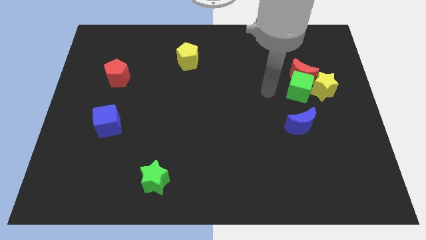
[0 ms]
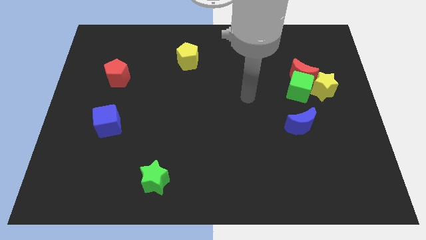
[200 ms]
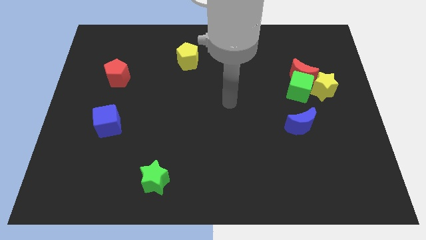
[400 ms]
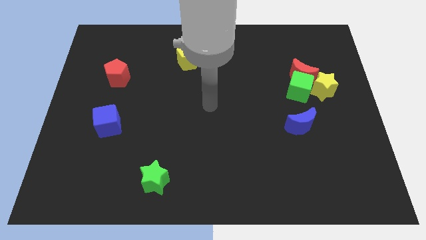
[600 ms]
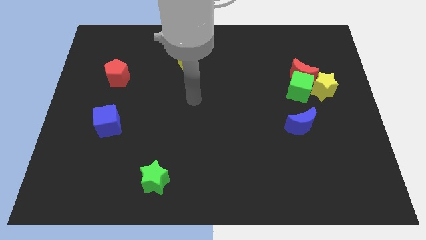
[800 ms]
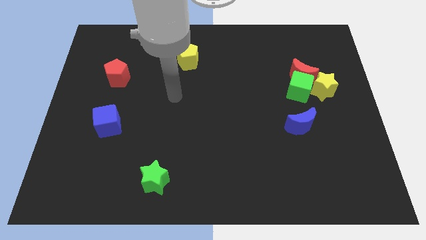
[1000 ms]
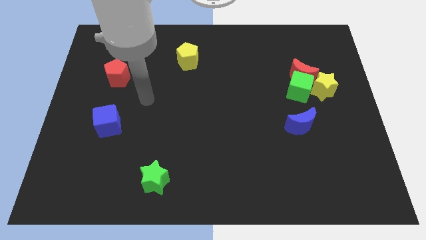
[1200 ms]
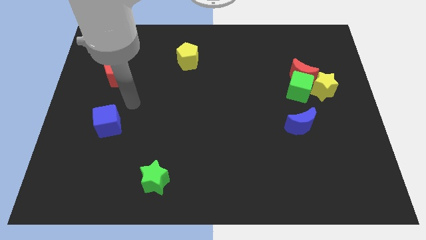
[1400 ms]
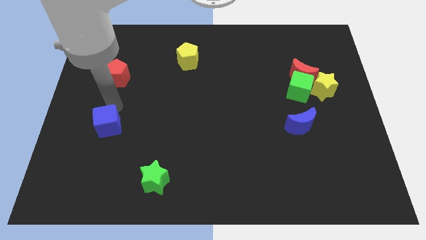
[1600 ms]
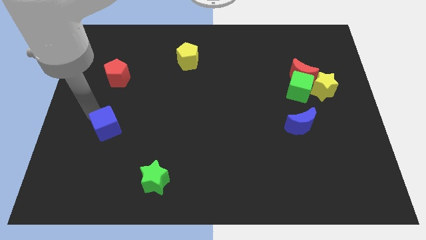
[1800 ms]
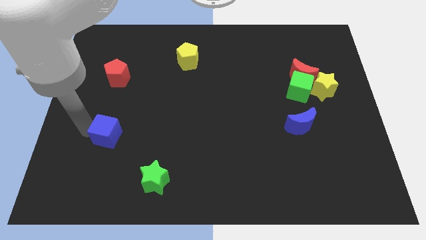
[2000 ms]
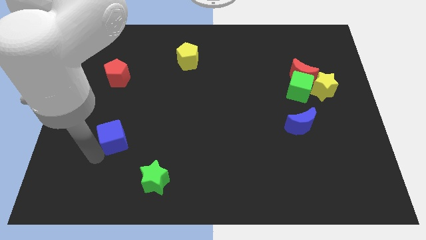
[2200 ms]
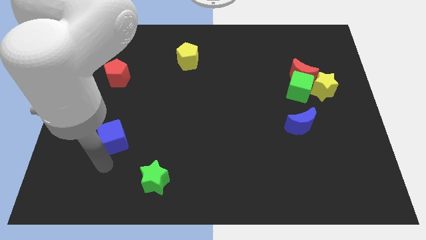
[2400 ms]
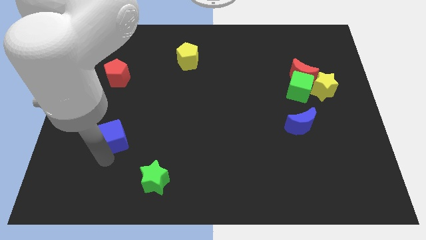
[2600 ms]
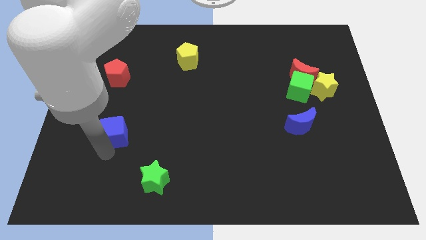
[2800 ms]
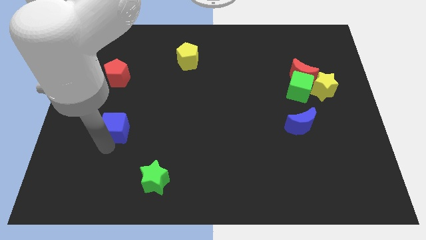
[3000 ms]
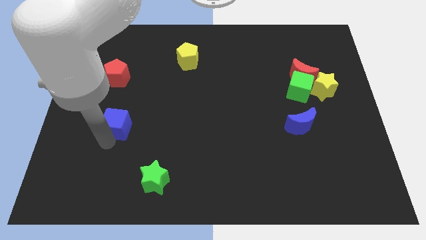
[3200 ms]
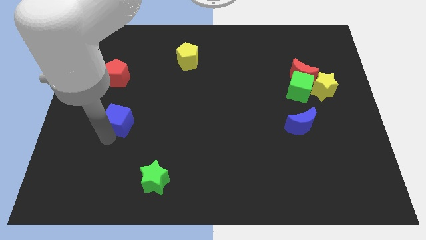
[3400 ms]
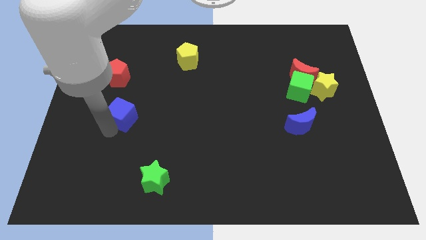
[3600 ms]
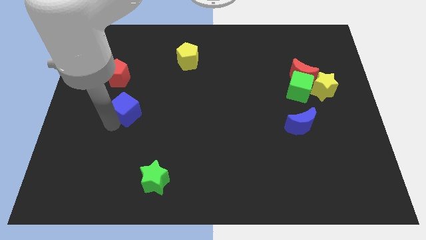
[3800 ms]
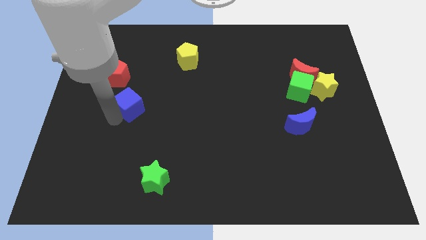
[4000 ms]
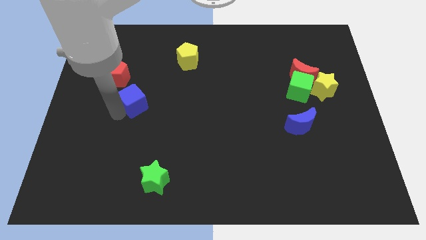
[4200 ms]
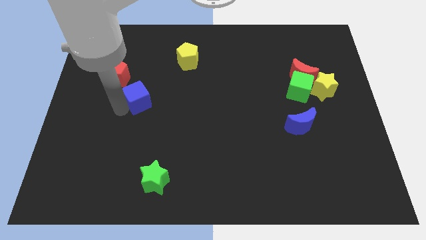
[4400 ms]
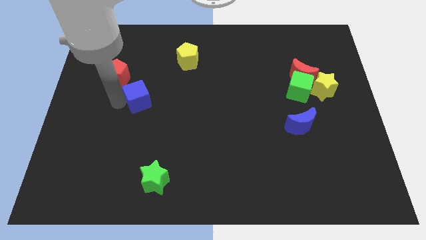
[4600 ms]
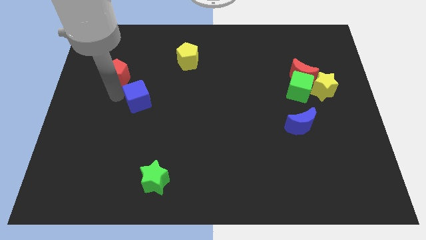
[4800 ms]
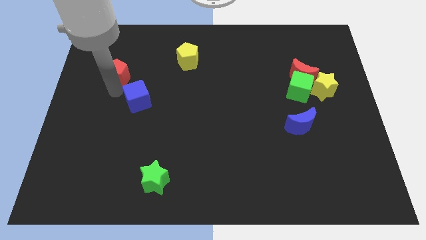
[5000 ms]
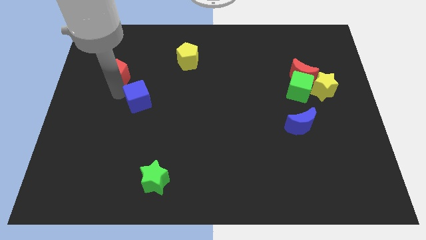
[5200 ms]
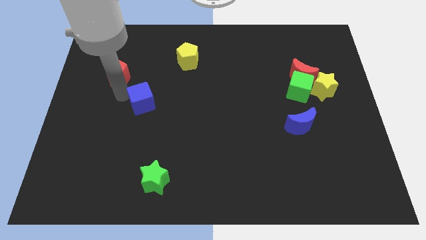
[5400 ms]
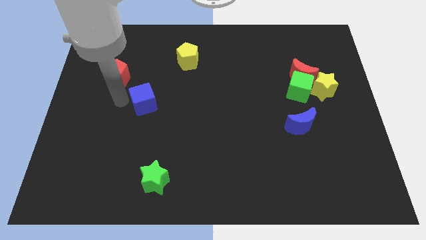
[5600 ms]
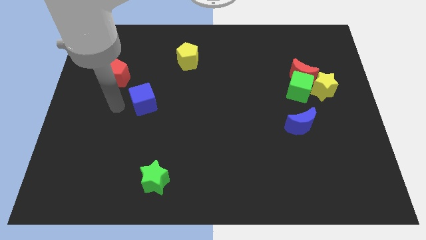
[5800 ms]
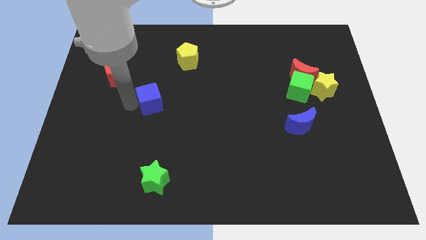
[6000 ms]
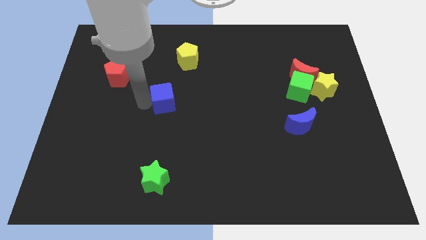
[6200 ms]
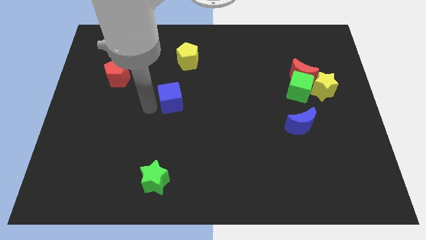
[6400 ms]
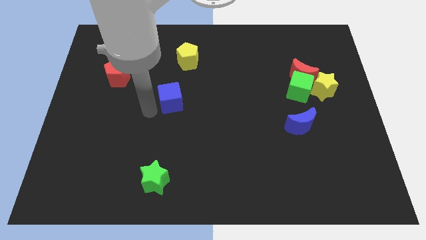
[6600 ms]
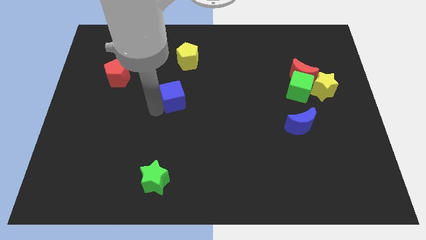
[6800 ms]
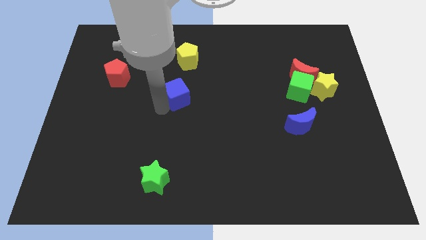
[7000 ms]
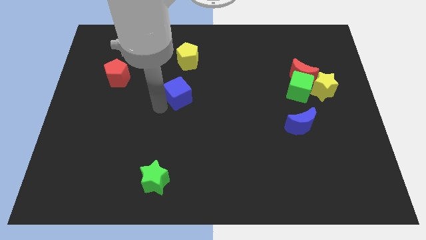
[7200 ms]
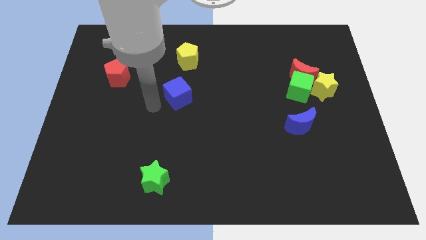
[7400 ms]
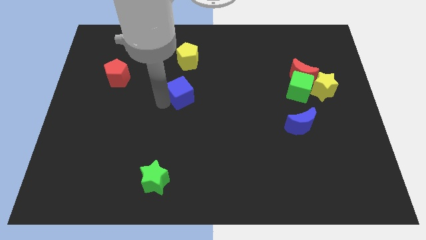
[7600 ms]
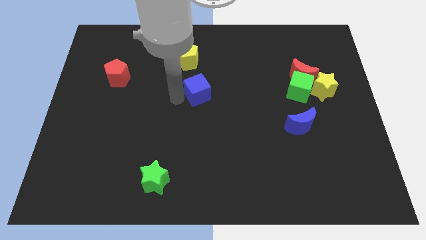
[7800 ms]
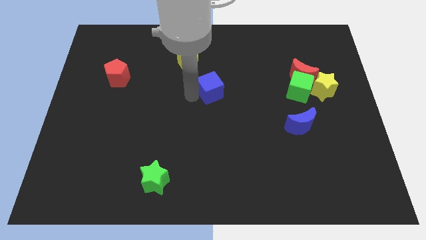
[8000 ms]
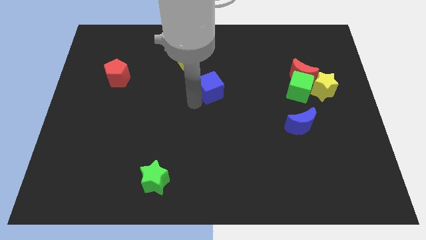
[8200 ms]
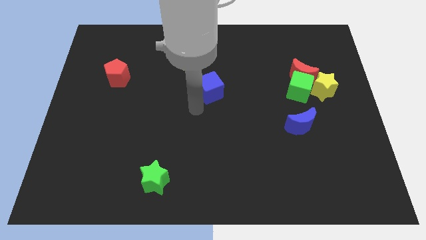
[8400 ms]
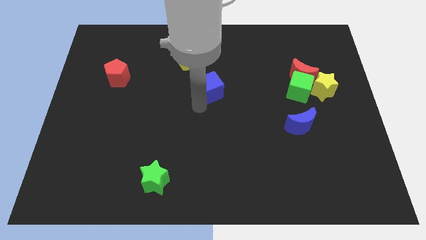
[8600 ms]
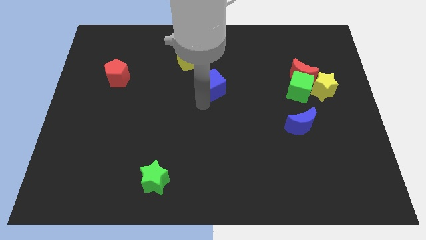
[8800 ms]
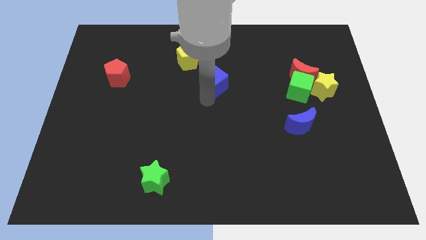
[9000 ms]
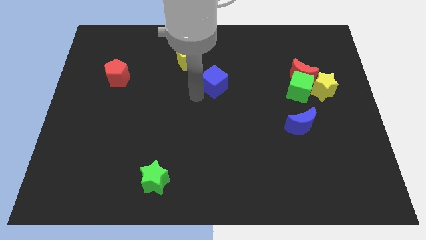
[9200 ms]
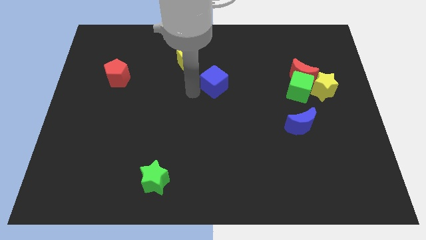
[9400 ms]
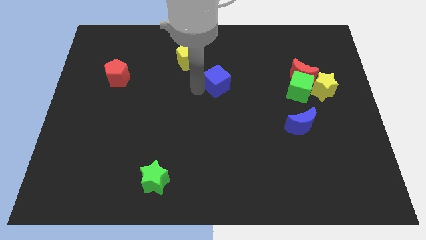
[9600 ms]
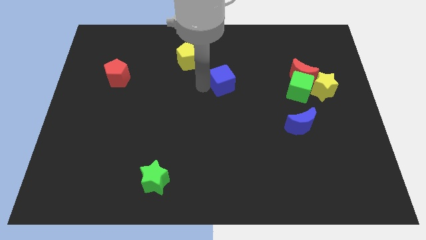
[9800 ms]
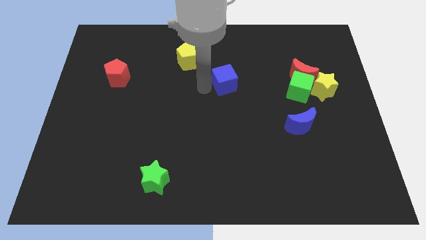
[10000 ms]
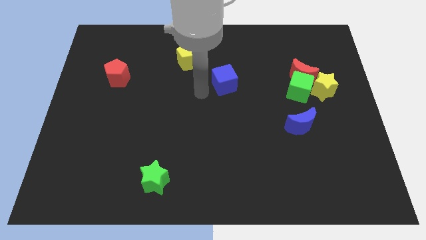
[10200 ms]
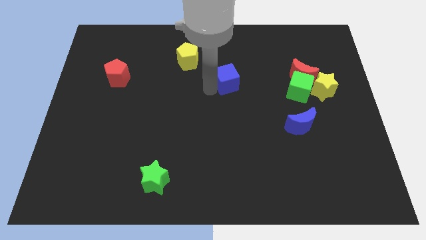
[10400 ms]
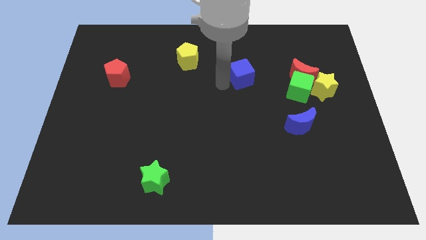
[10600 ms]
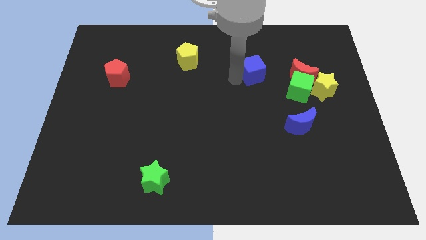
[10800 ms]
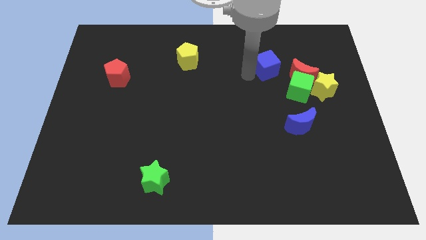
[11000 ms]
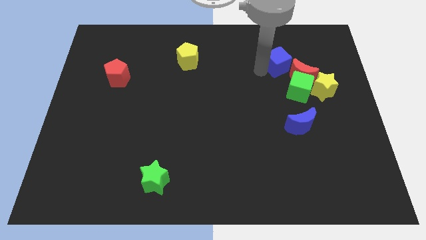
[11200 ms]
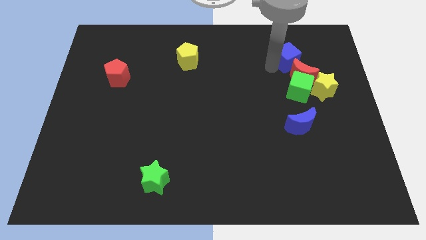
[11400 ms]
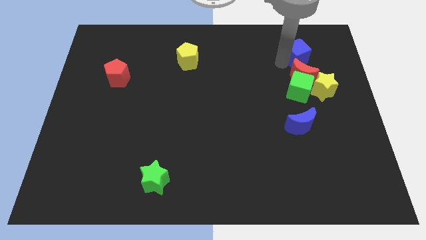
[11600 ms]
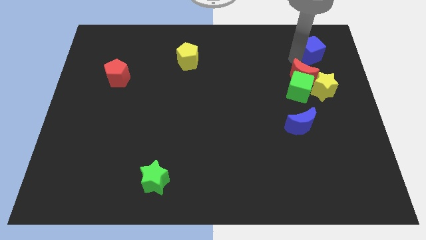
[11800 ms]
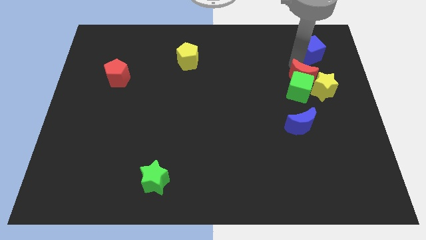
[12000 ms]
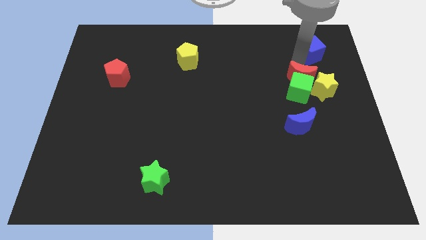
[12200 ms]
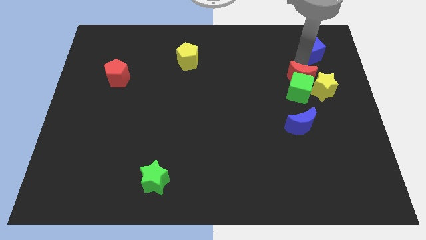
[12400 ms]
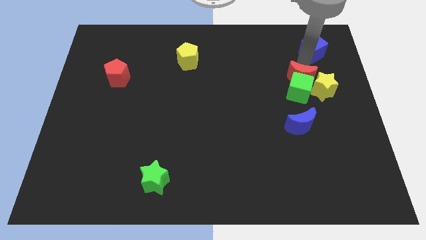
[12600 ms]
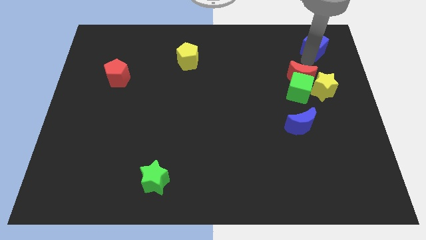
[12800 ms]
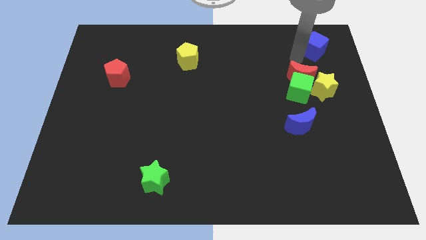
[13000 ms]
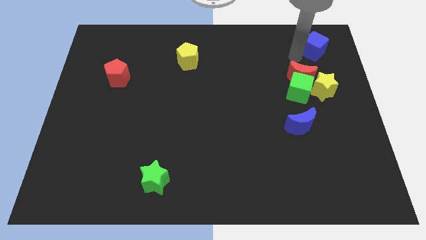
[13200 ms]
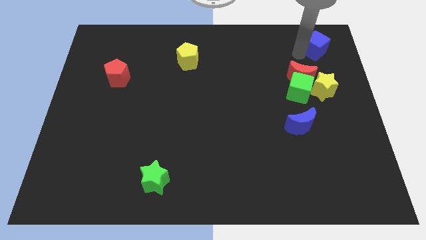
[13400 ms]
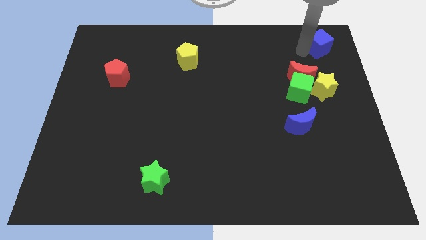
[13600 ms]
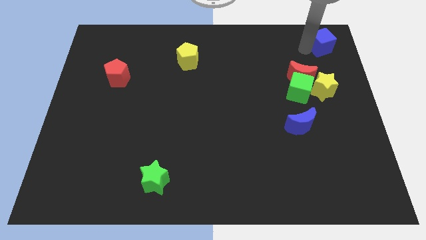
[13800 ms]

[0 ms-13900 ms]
push the blue cube to the top right corner
